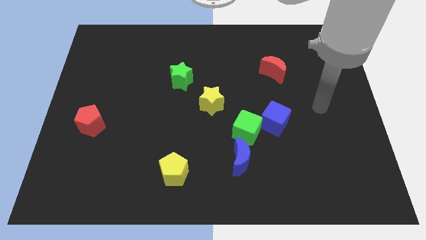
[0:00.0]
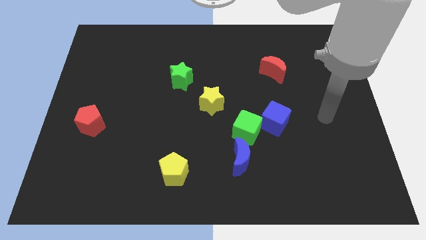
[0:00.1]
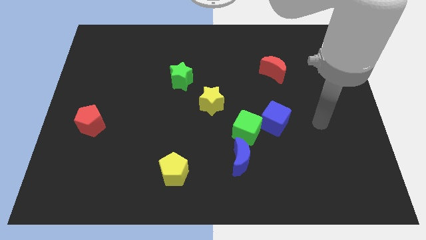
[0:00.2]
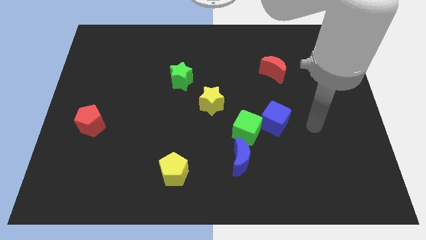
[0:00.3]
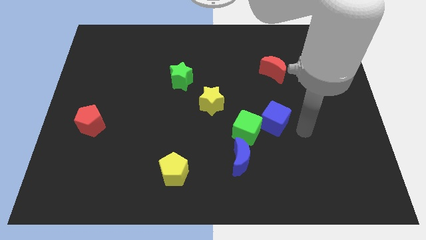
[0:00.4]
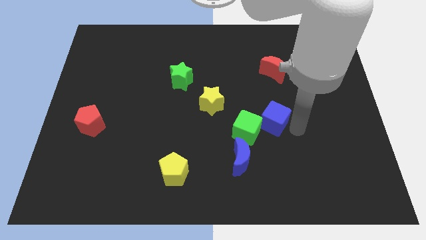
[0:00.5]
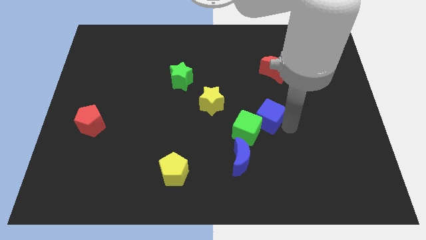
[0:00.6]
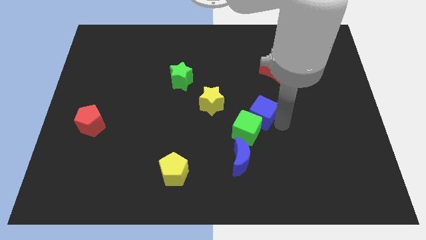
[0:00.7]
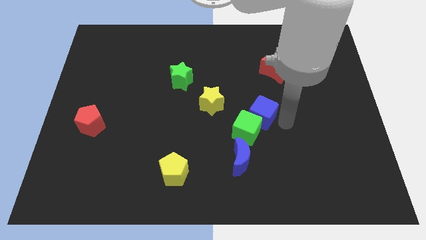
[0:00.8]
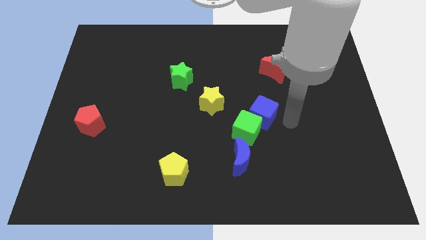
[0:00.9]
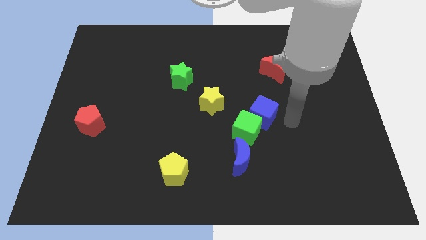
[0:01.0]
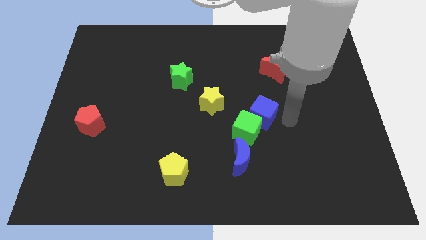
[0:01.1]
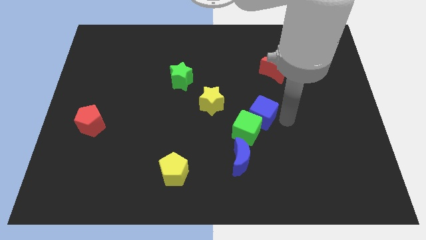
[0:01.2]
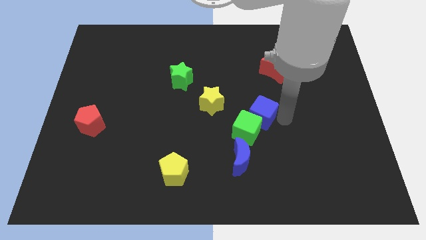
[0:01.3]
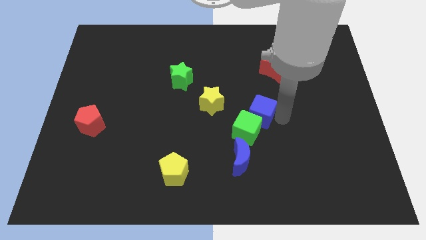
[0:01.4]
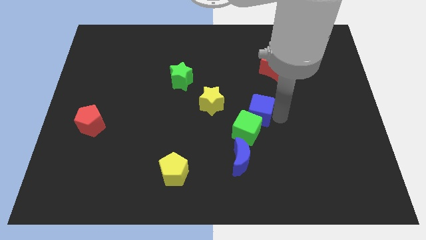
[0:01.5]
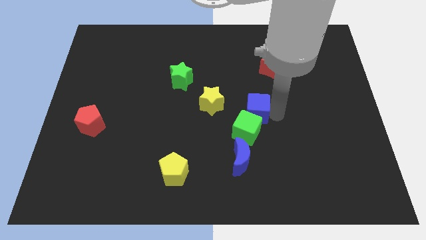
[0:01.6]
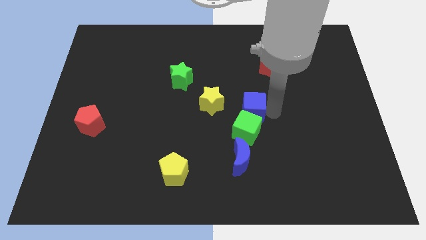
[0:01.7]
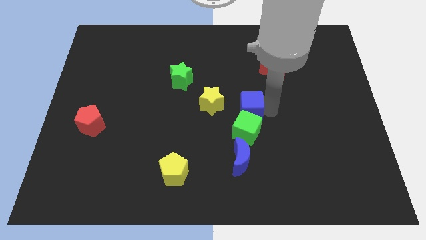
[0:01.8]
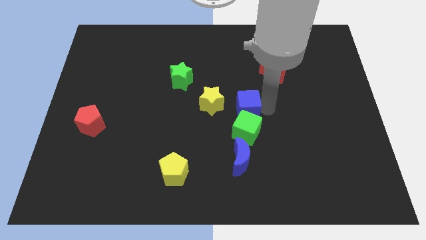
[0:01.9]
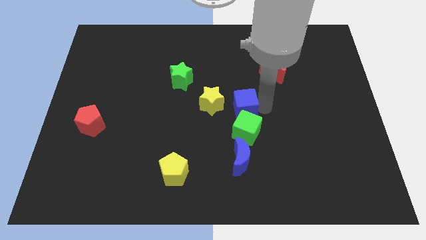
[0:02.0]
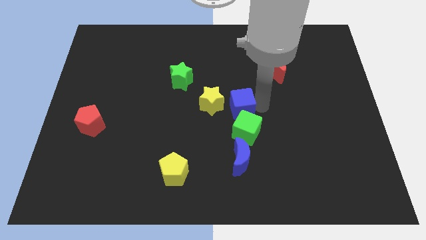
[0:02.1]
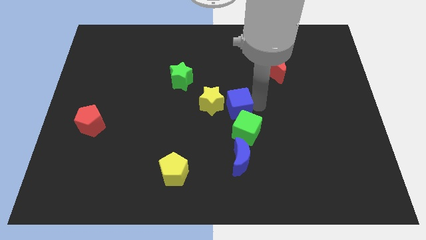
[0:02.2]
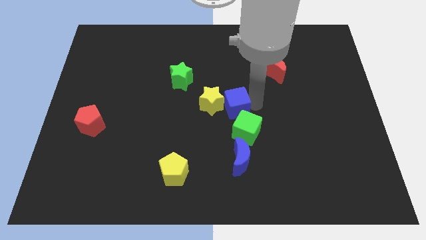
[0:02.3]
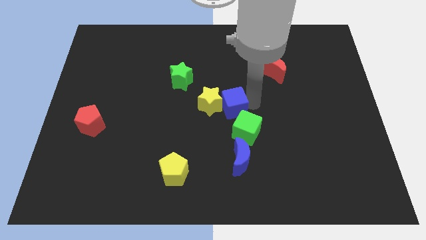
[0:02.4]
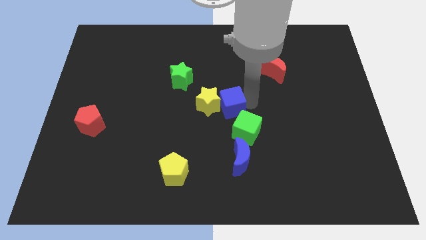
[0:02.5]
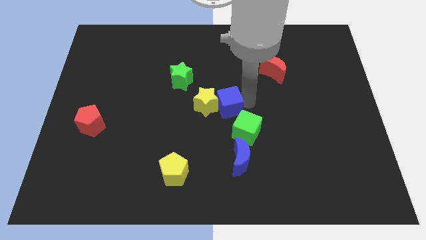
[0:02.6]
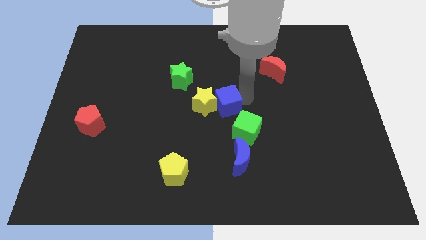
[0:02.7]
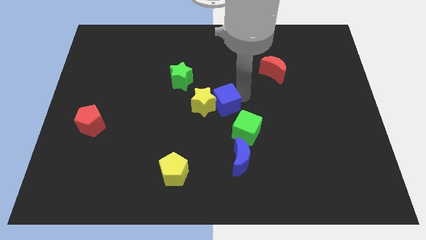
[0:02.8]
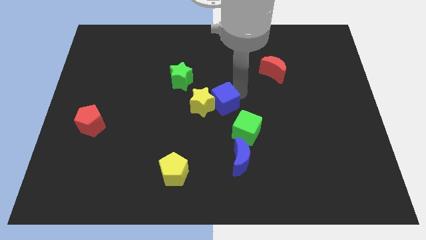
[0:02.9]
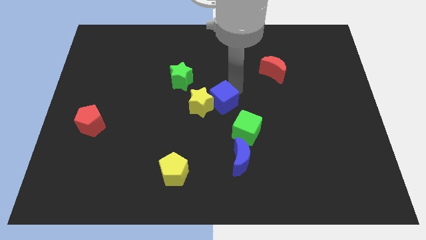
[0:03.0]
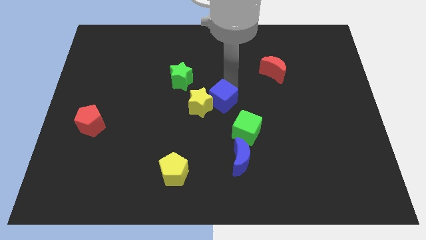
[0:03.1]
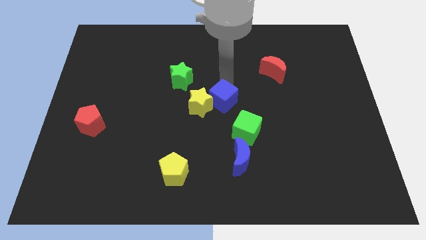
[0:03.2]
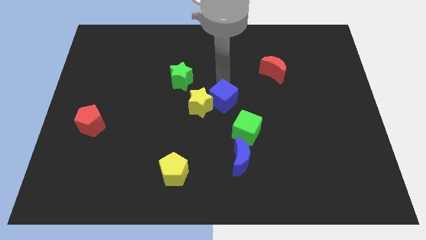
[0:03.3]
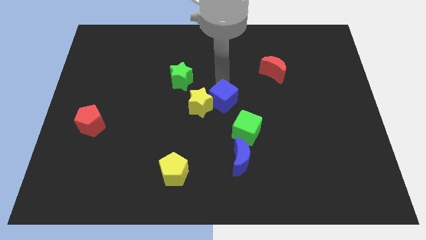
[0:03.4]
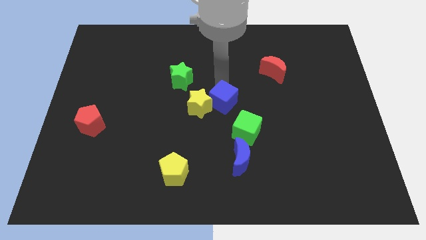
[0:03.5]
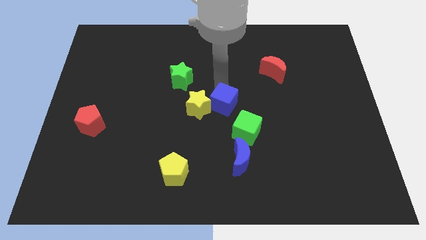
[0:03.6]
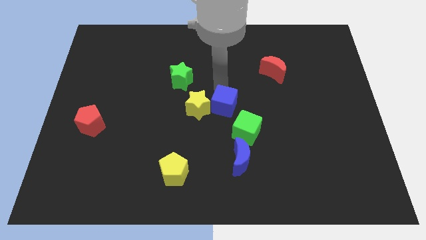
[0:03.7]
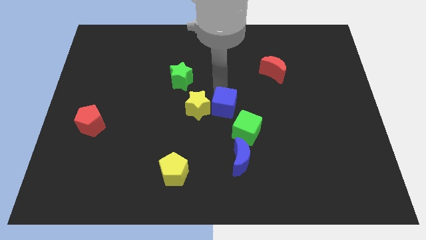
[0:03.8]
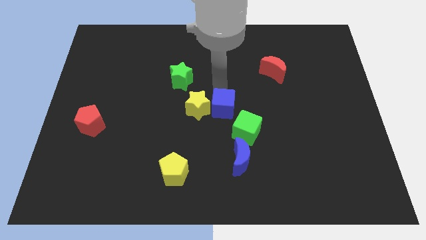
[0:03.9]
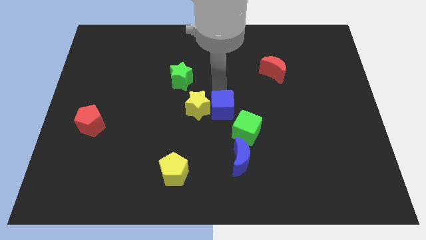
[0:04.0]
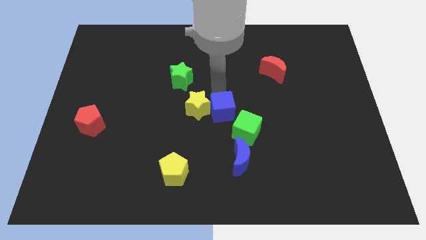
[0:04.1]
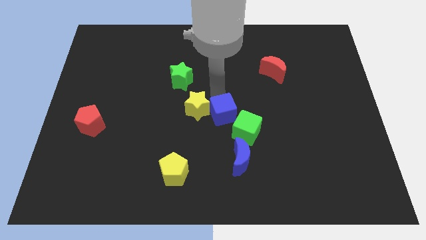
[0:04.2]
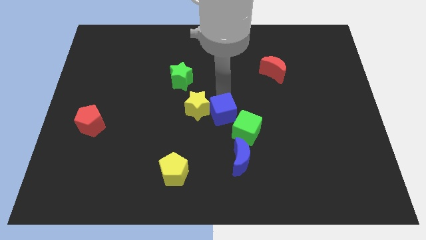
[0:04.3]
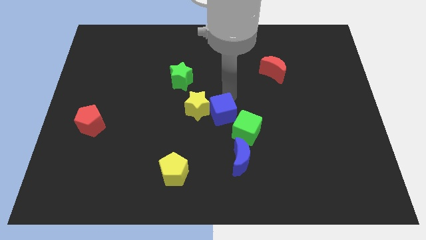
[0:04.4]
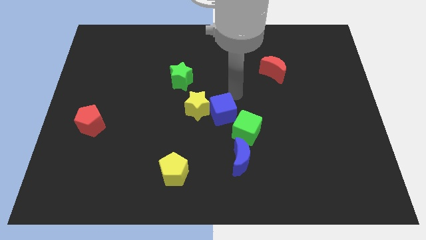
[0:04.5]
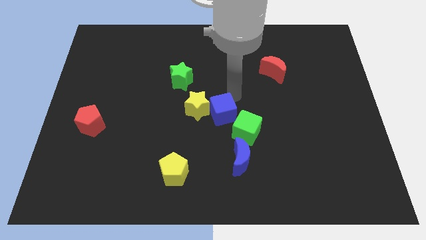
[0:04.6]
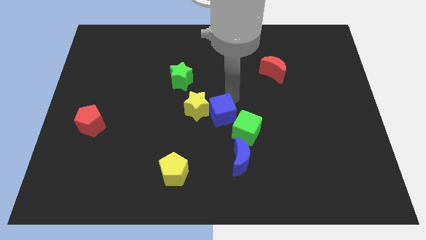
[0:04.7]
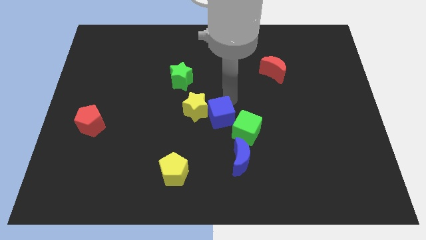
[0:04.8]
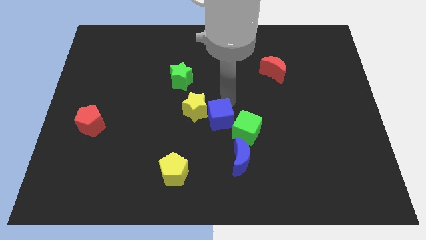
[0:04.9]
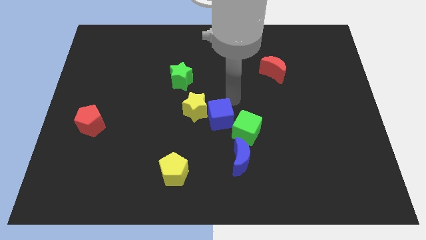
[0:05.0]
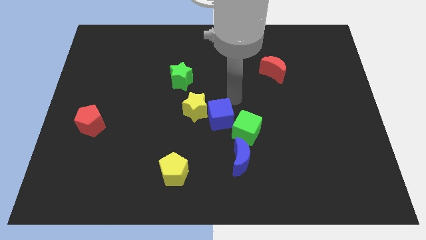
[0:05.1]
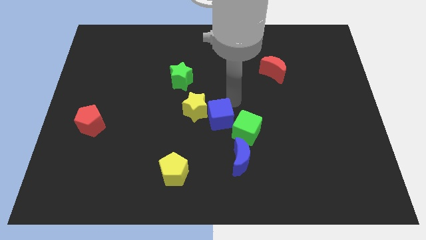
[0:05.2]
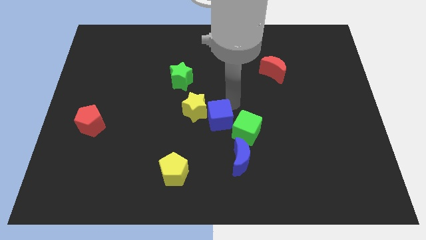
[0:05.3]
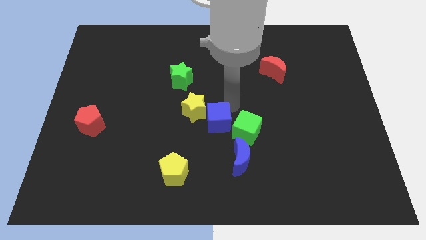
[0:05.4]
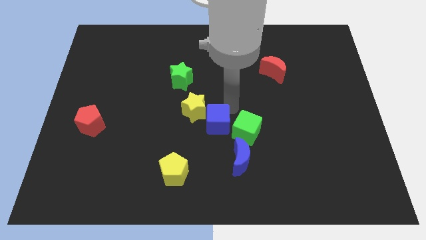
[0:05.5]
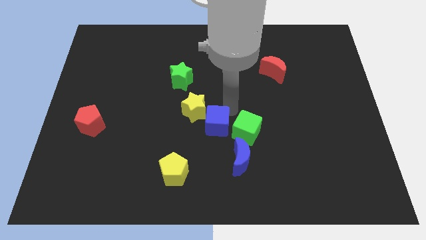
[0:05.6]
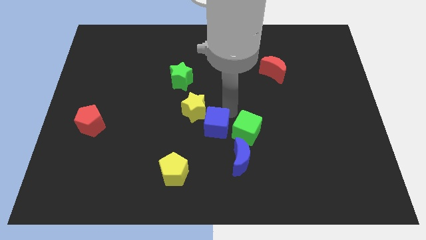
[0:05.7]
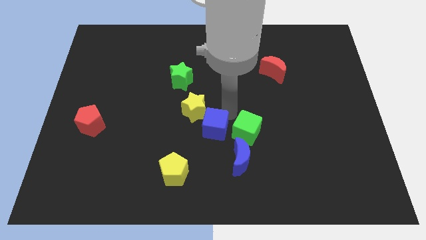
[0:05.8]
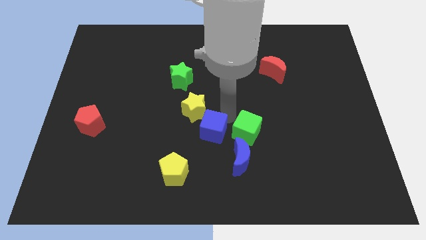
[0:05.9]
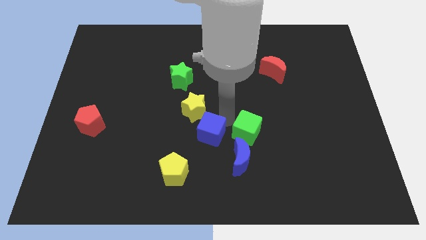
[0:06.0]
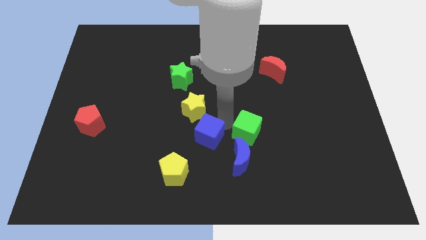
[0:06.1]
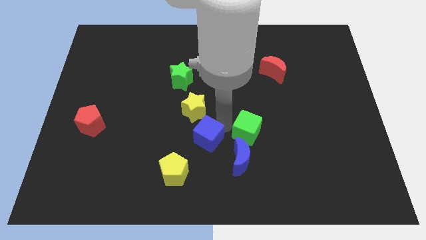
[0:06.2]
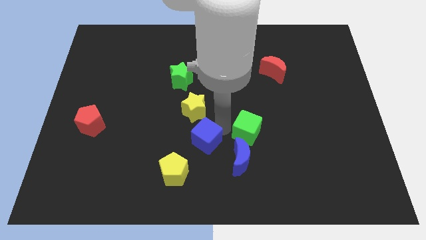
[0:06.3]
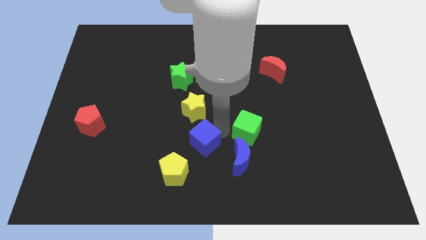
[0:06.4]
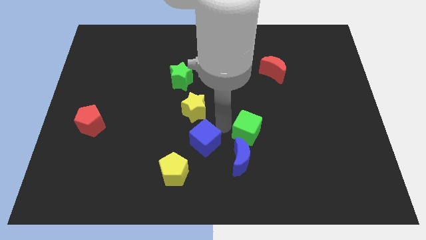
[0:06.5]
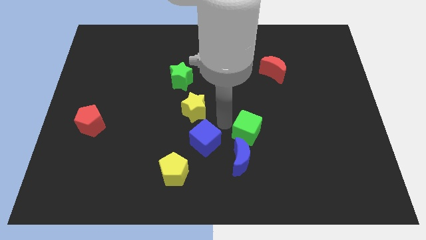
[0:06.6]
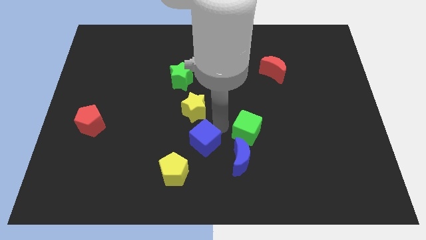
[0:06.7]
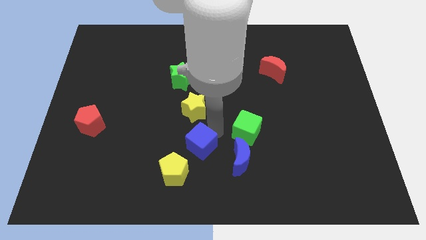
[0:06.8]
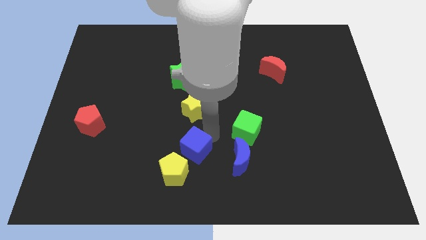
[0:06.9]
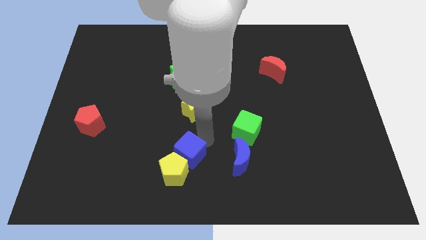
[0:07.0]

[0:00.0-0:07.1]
slide the blue cube next to the yellow pentagon
